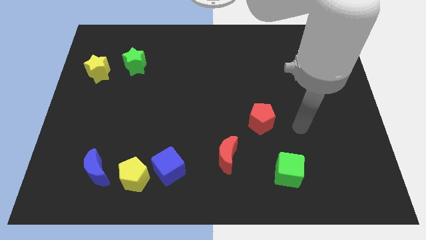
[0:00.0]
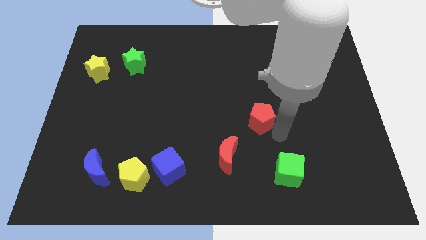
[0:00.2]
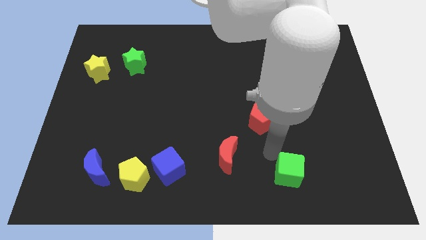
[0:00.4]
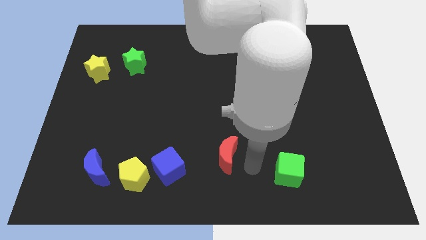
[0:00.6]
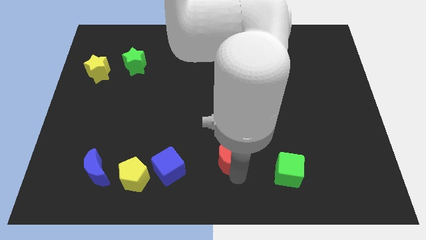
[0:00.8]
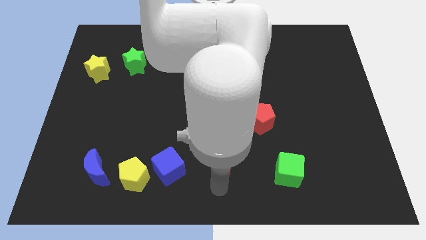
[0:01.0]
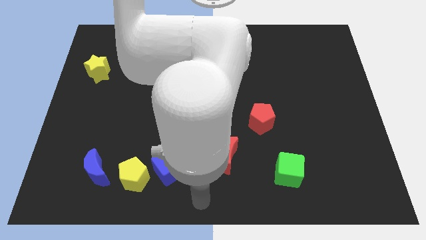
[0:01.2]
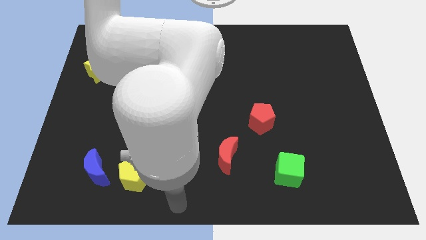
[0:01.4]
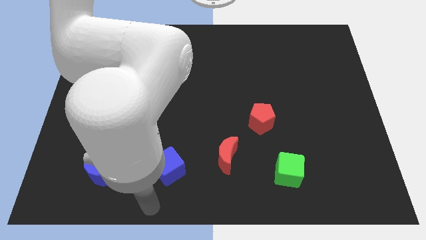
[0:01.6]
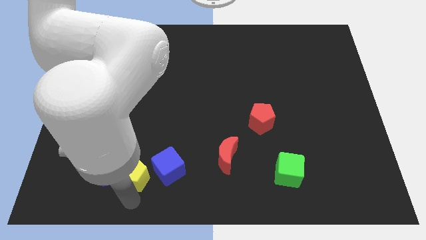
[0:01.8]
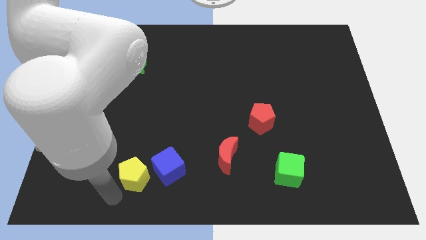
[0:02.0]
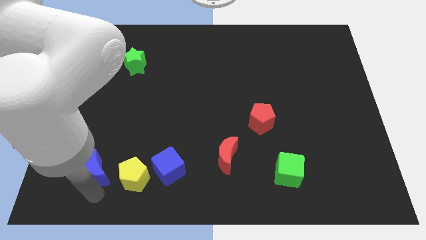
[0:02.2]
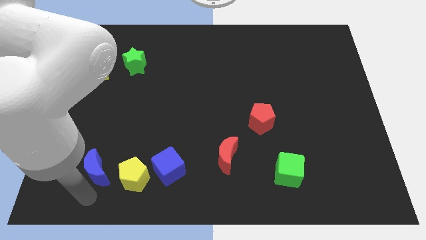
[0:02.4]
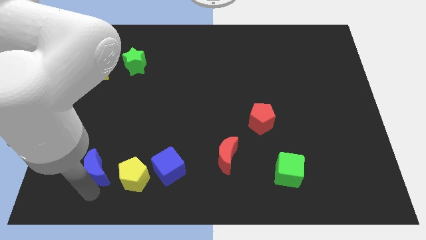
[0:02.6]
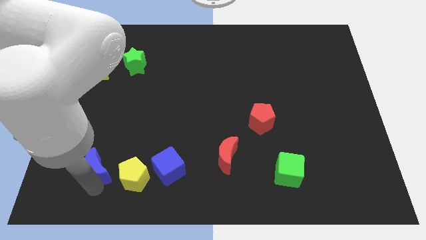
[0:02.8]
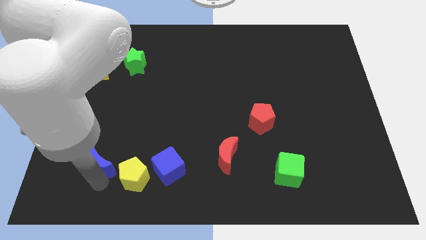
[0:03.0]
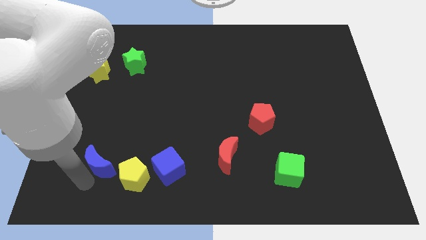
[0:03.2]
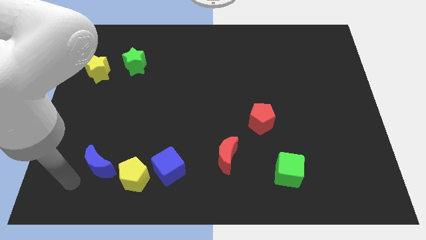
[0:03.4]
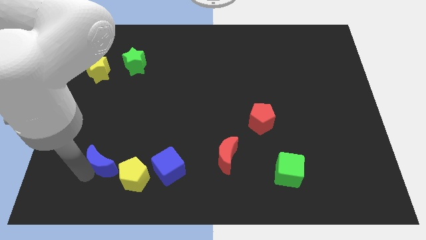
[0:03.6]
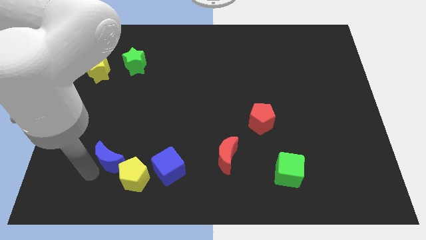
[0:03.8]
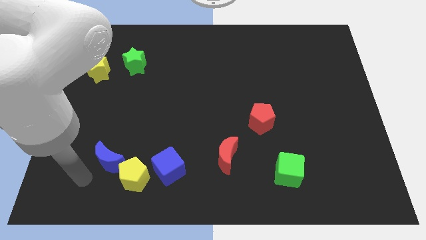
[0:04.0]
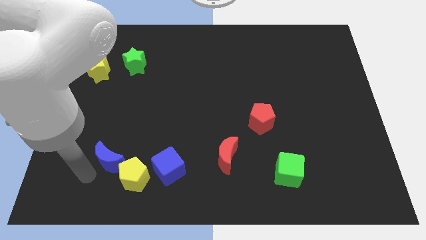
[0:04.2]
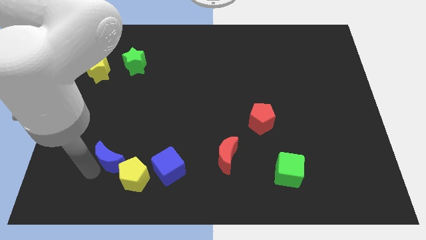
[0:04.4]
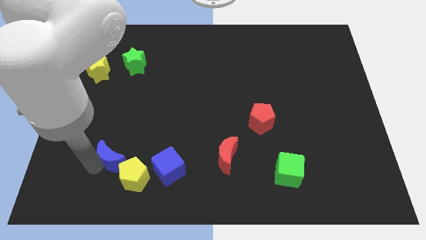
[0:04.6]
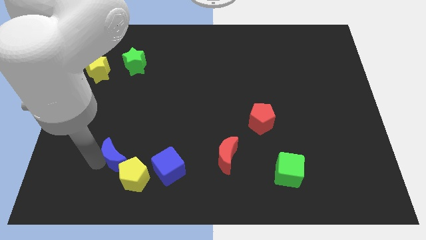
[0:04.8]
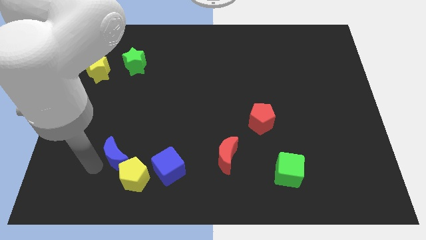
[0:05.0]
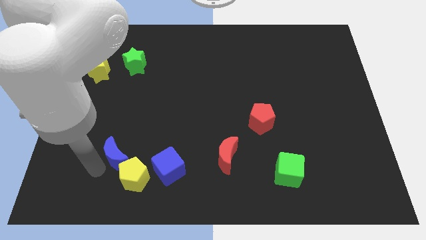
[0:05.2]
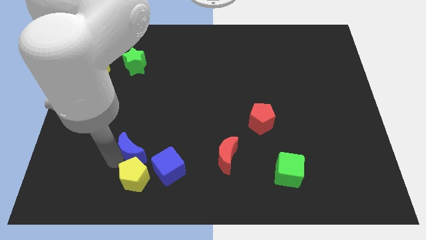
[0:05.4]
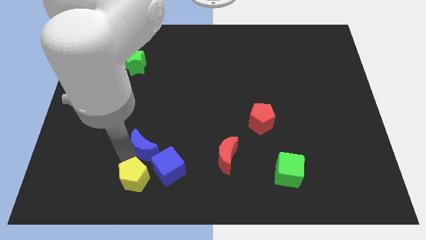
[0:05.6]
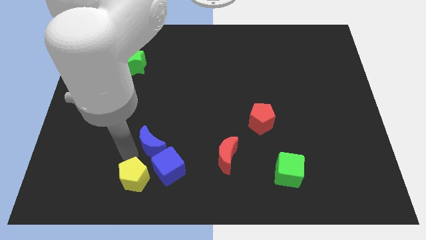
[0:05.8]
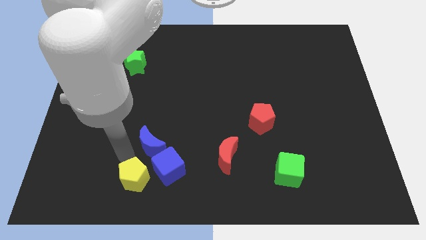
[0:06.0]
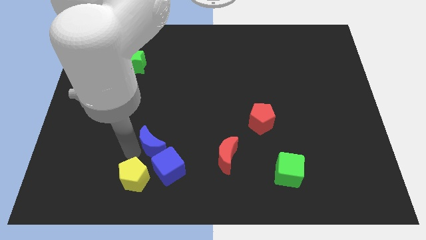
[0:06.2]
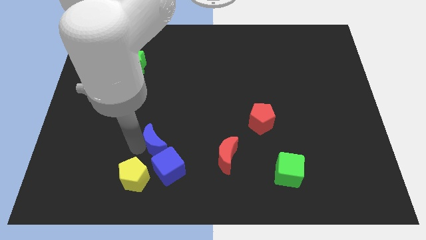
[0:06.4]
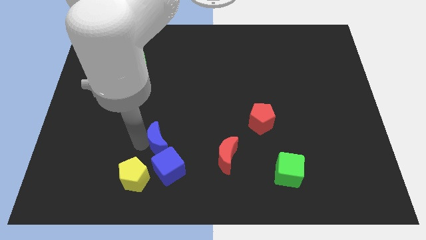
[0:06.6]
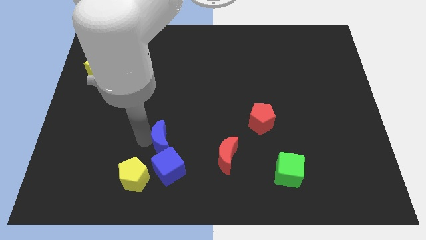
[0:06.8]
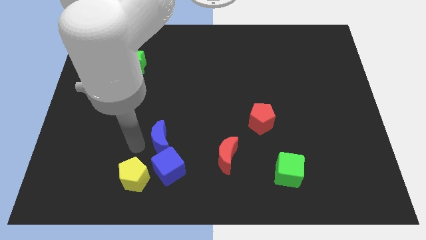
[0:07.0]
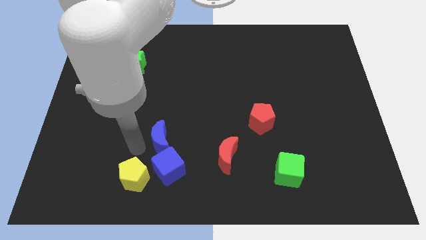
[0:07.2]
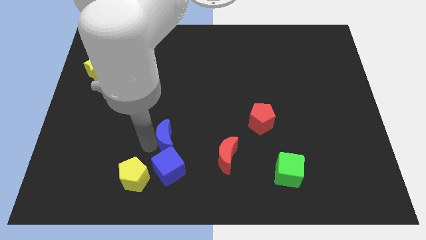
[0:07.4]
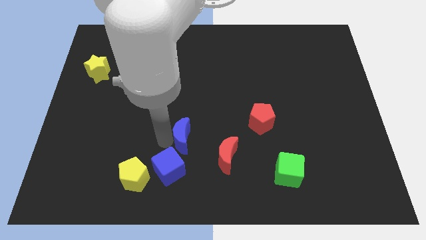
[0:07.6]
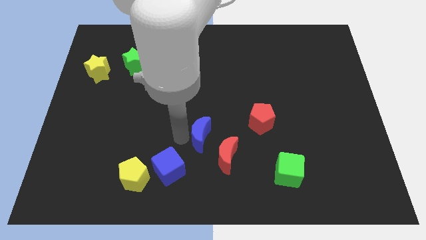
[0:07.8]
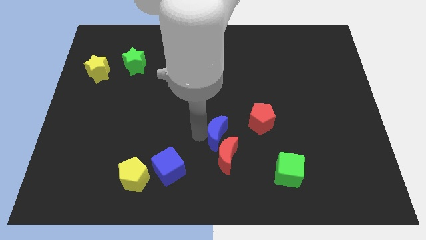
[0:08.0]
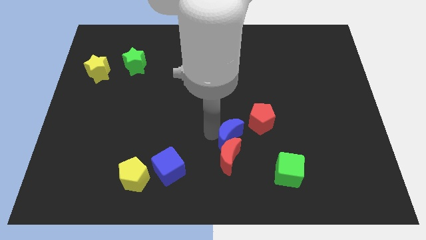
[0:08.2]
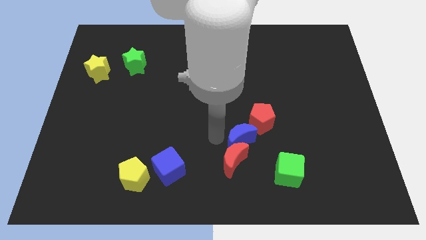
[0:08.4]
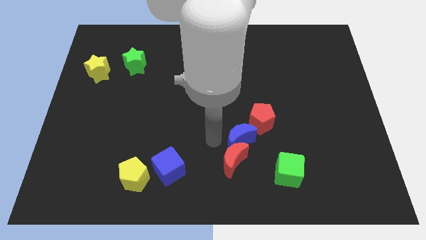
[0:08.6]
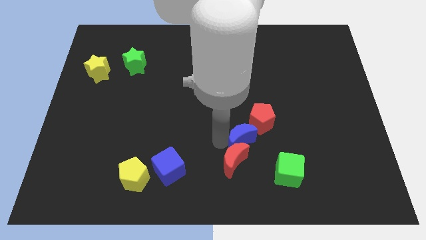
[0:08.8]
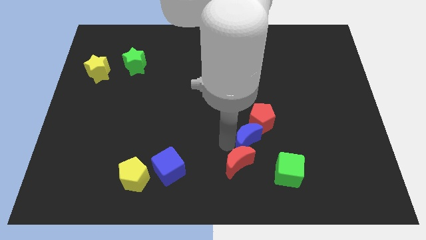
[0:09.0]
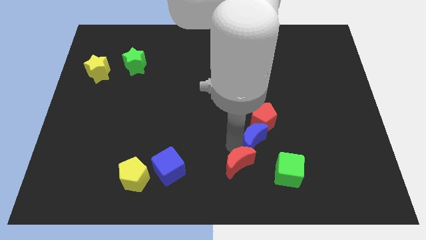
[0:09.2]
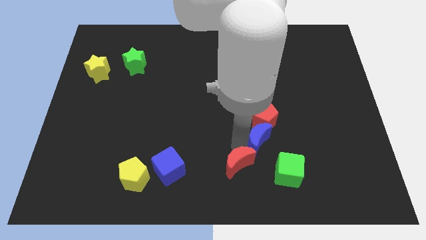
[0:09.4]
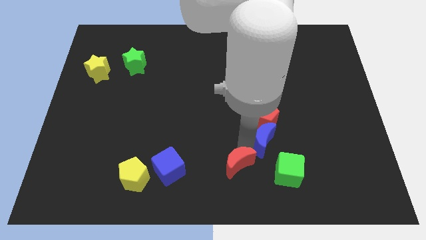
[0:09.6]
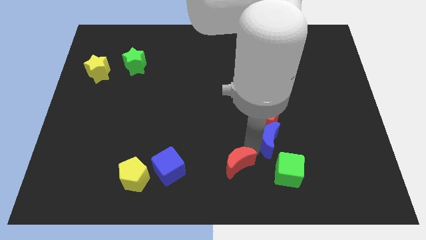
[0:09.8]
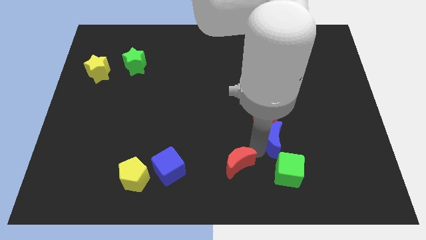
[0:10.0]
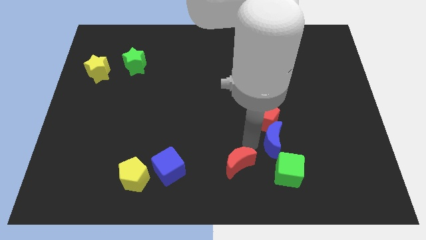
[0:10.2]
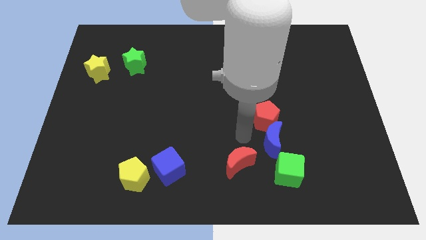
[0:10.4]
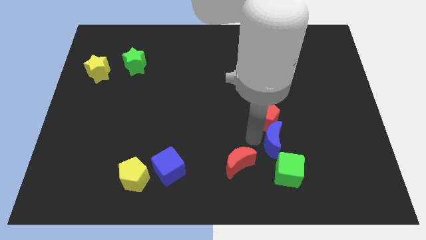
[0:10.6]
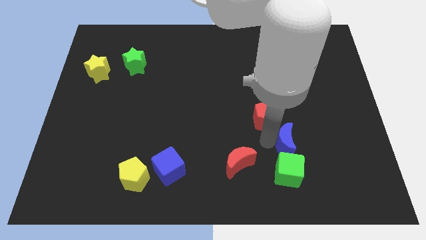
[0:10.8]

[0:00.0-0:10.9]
move the blue moon to the top right of the green cube

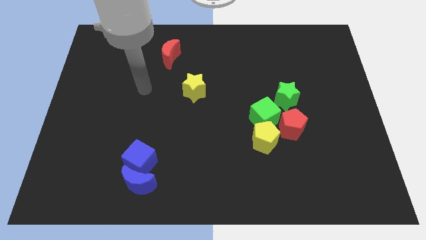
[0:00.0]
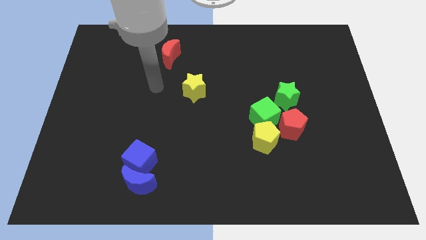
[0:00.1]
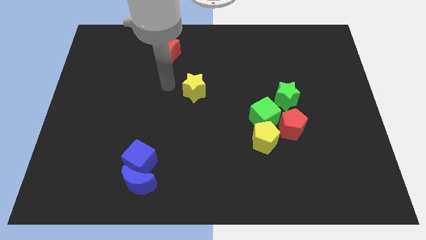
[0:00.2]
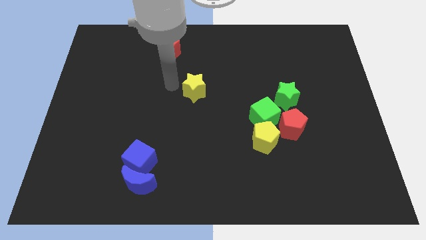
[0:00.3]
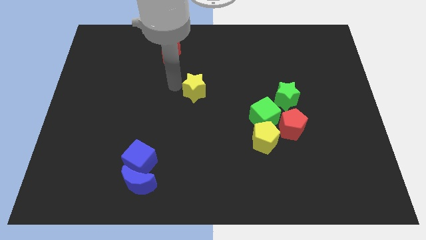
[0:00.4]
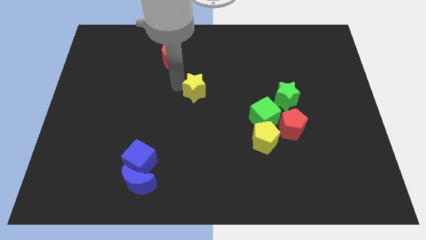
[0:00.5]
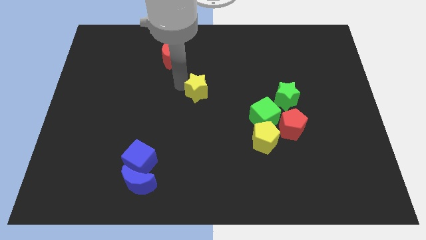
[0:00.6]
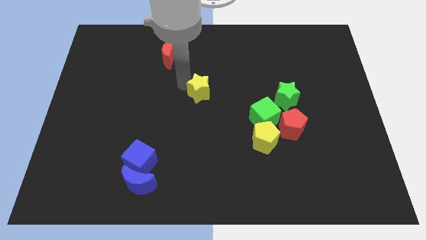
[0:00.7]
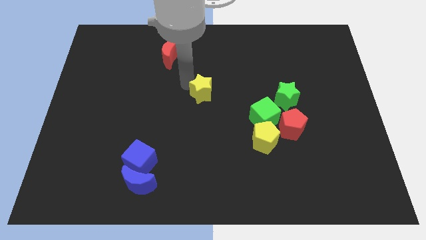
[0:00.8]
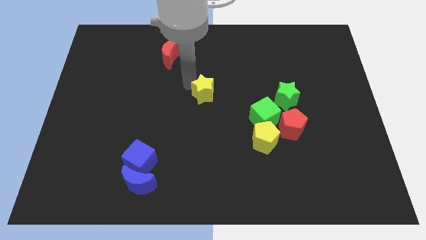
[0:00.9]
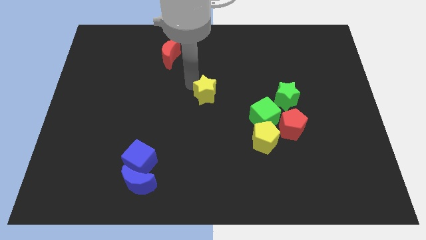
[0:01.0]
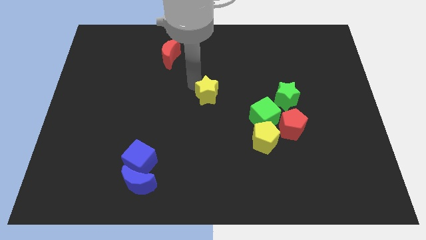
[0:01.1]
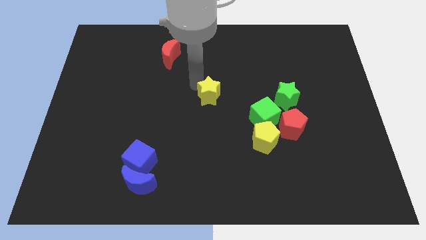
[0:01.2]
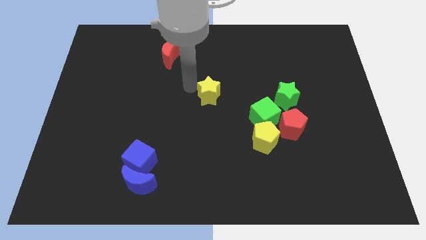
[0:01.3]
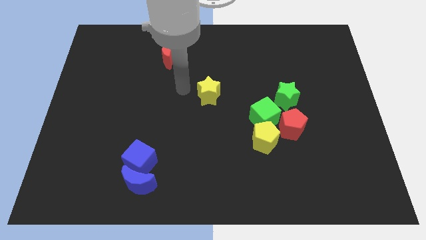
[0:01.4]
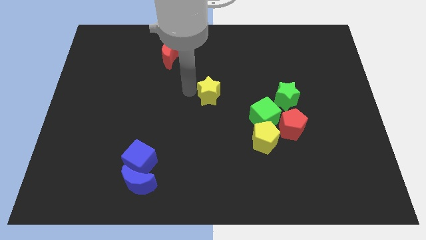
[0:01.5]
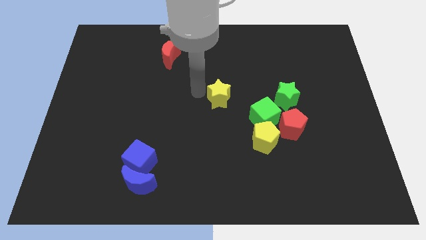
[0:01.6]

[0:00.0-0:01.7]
push the yellow star diagonally up and to the left of the green cube
